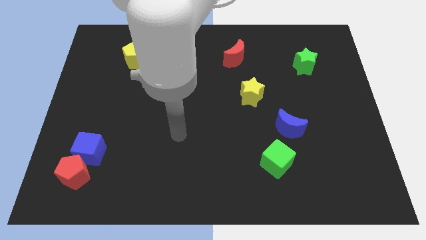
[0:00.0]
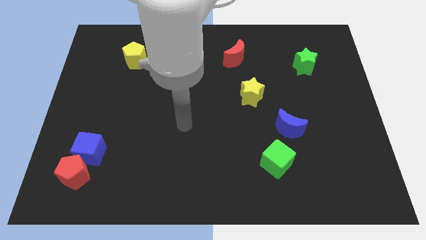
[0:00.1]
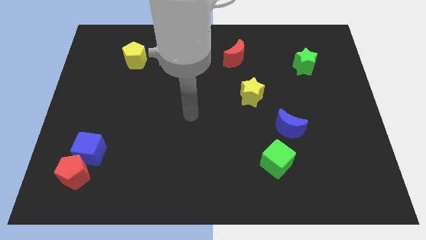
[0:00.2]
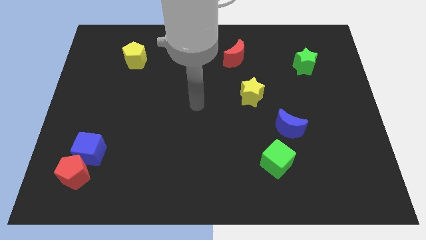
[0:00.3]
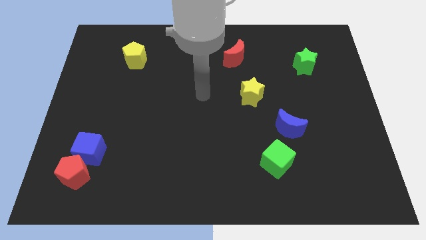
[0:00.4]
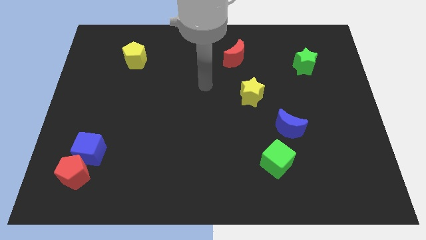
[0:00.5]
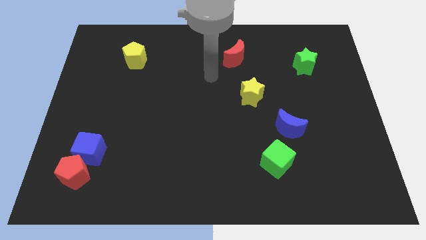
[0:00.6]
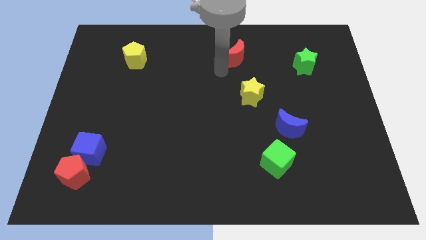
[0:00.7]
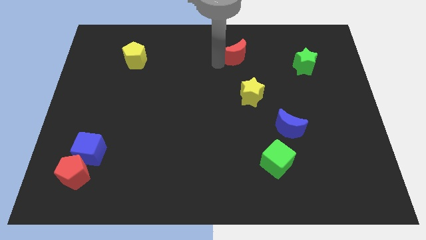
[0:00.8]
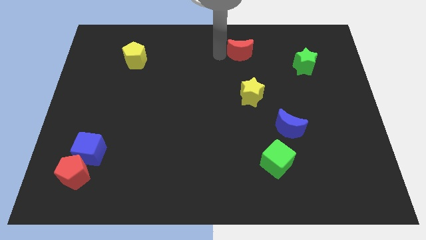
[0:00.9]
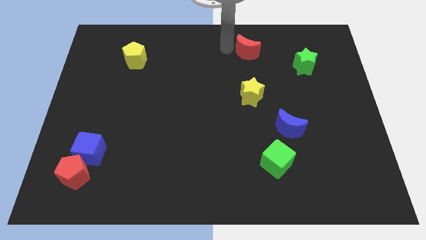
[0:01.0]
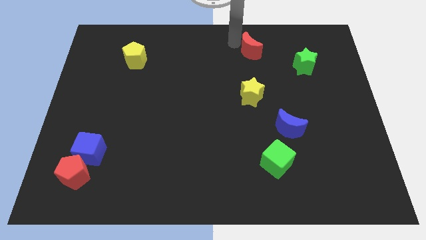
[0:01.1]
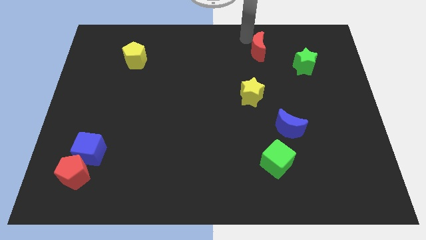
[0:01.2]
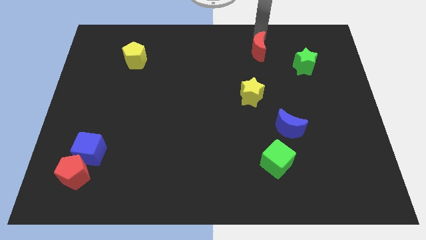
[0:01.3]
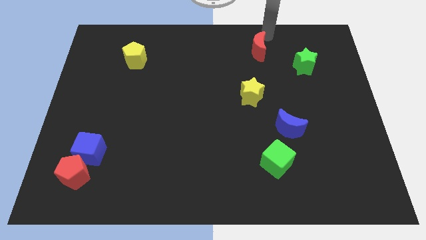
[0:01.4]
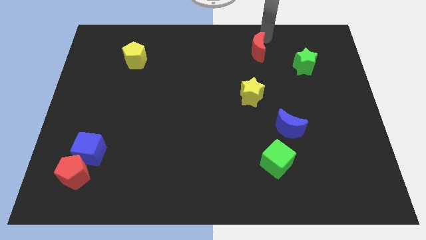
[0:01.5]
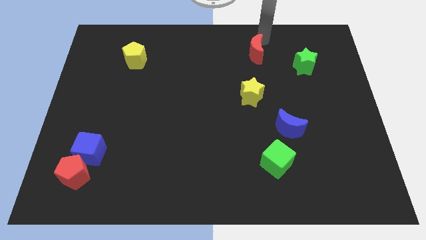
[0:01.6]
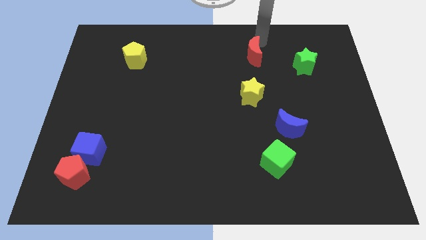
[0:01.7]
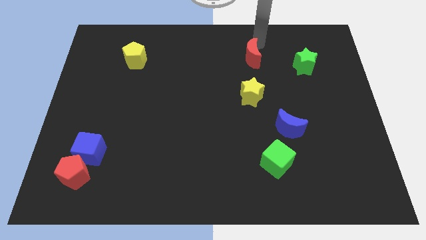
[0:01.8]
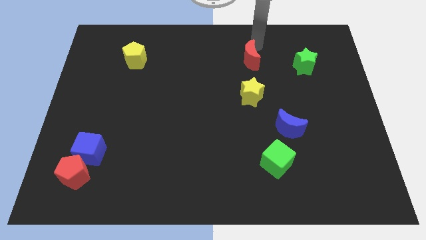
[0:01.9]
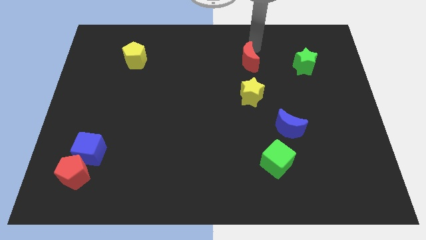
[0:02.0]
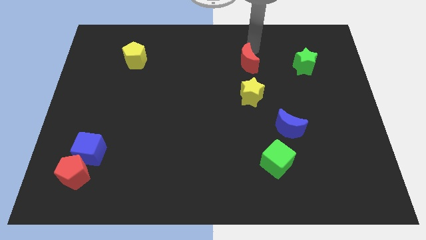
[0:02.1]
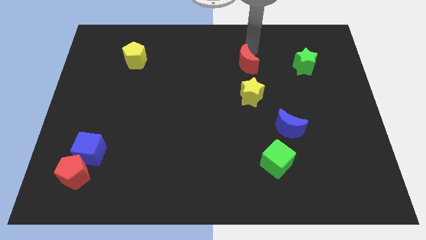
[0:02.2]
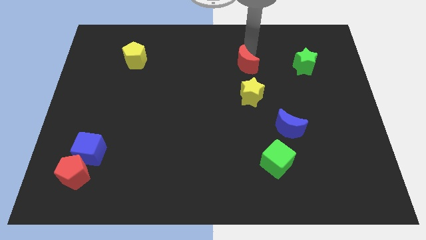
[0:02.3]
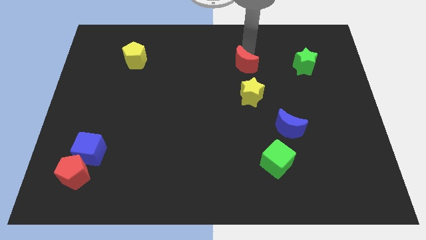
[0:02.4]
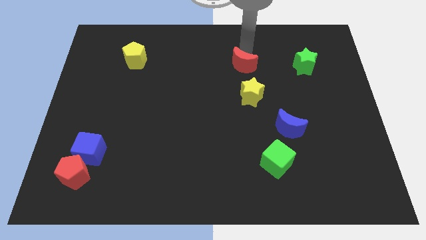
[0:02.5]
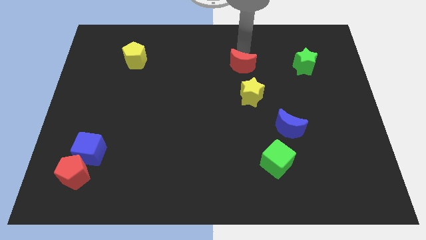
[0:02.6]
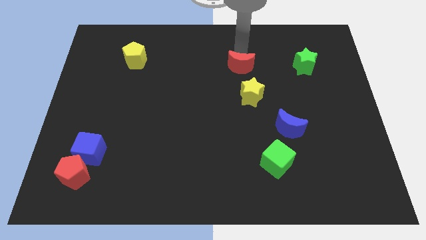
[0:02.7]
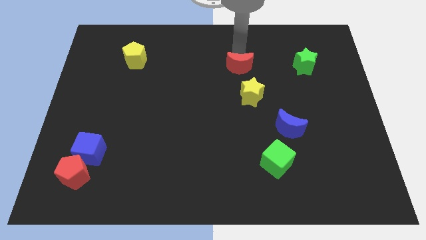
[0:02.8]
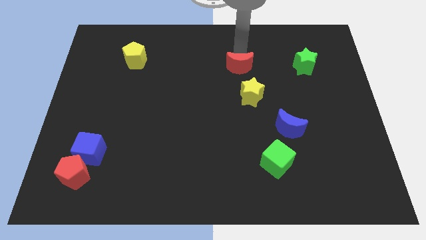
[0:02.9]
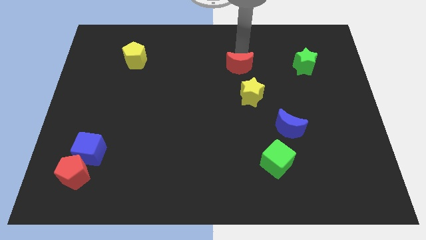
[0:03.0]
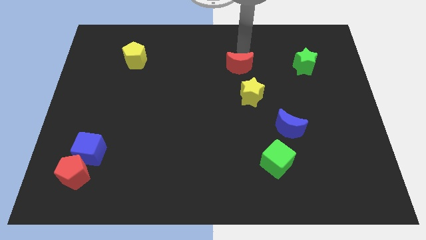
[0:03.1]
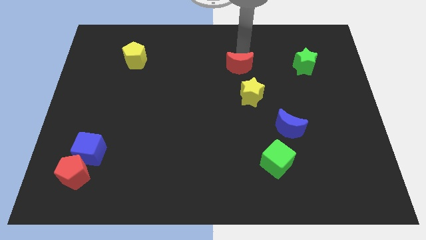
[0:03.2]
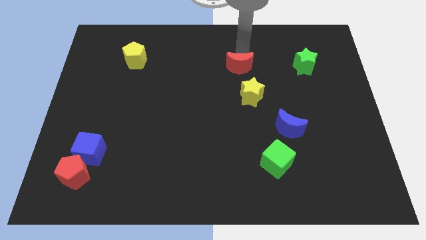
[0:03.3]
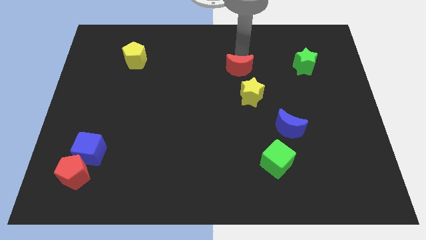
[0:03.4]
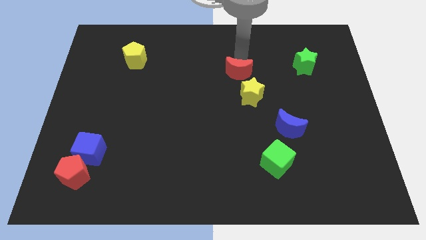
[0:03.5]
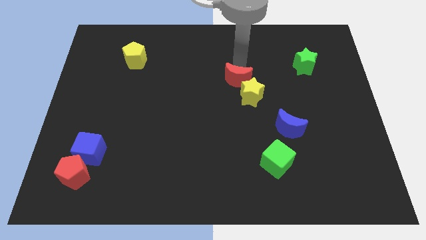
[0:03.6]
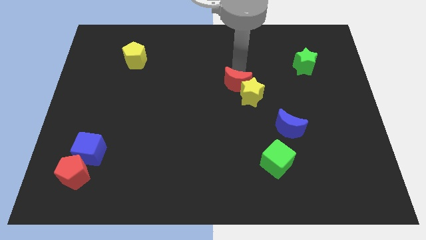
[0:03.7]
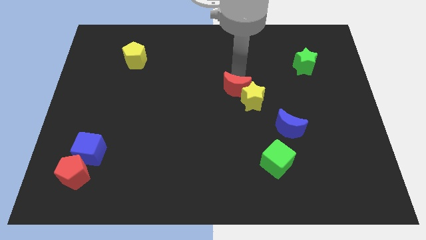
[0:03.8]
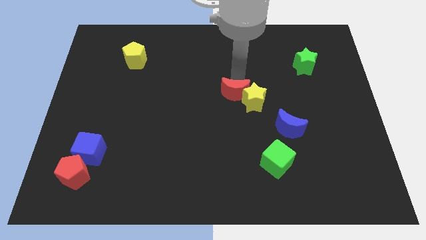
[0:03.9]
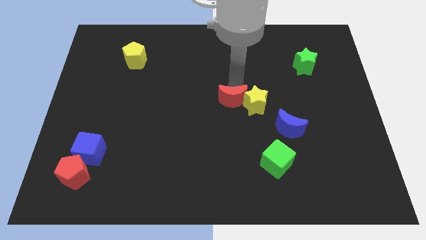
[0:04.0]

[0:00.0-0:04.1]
move the red moon to the bottom left of the yellow star

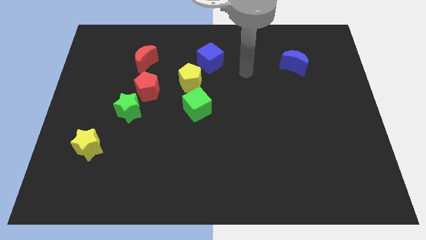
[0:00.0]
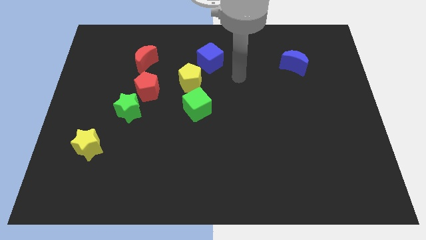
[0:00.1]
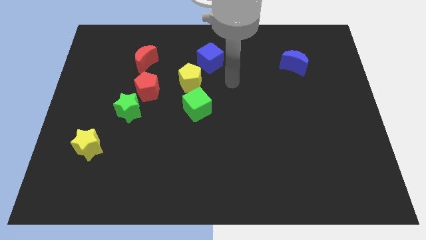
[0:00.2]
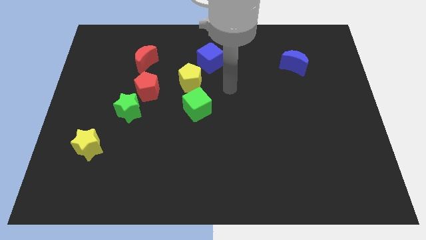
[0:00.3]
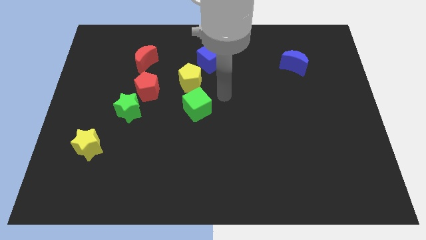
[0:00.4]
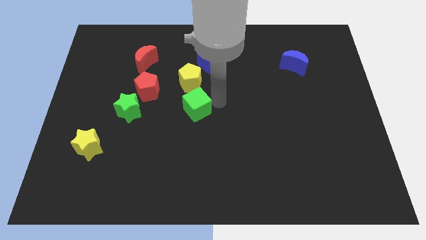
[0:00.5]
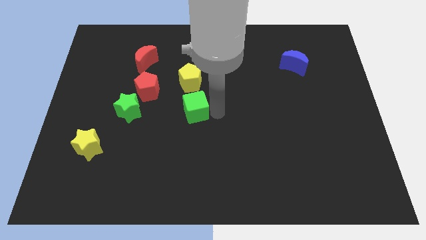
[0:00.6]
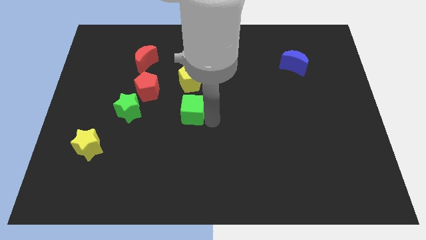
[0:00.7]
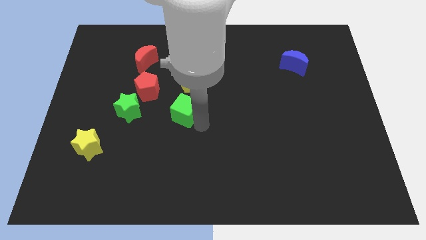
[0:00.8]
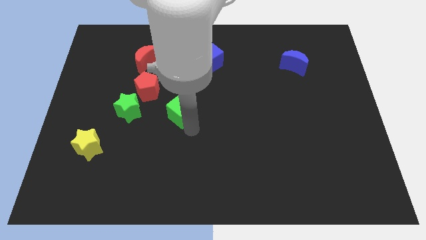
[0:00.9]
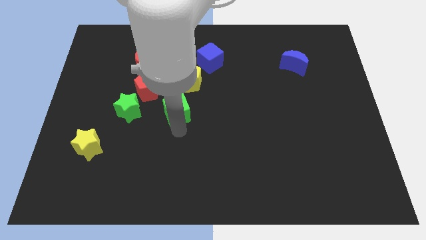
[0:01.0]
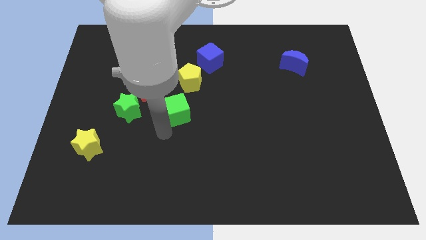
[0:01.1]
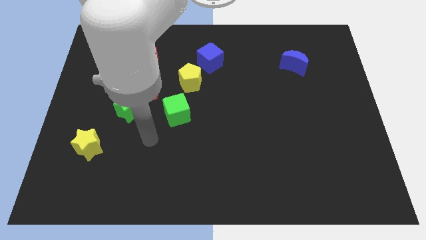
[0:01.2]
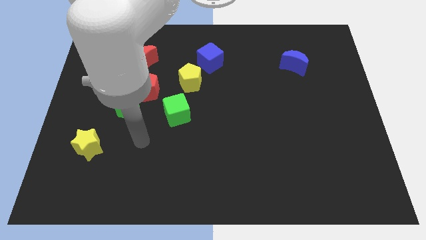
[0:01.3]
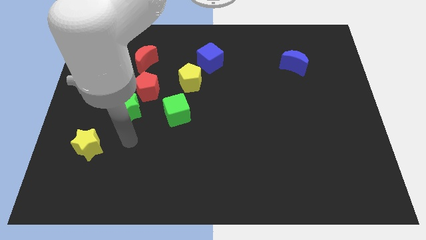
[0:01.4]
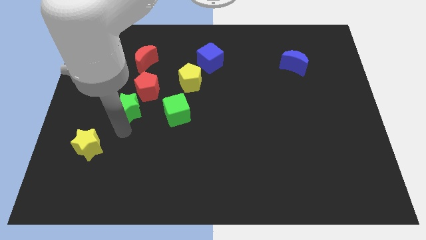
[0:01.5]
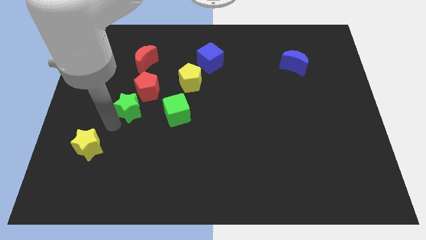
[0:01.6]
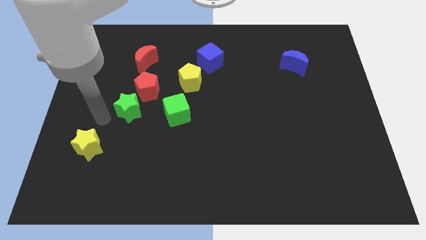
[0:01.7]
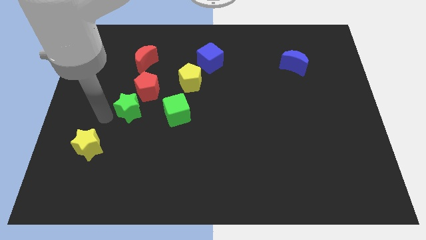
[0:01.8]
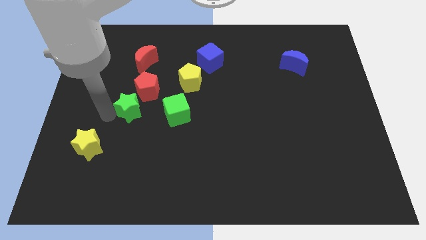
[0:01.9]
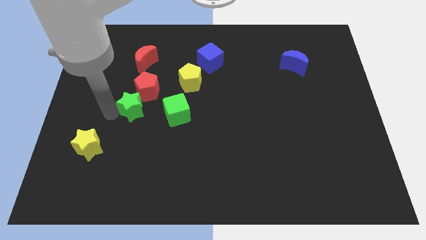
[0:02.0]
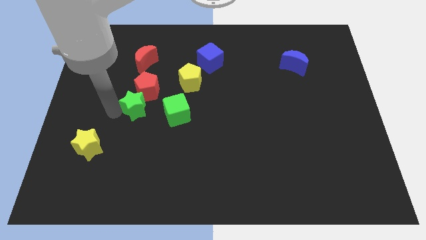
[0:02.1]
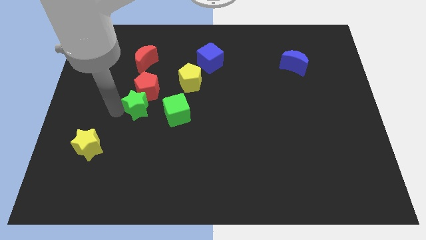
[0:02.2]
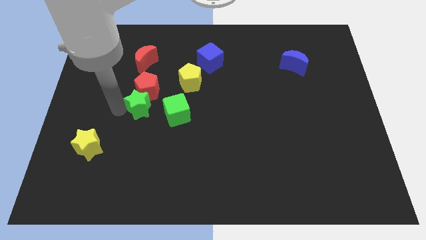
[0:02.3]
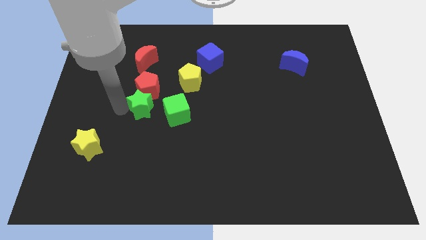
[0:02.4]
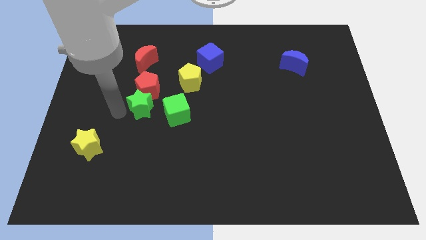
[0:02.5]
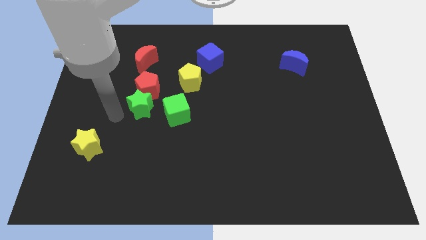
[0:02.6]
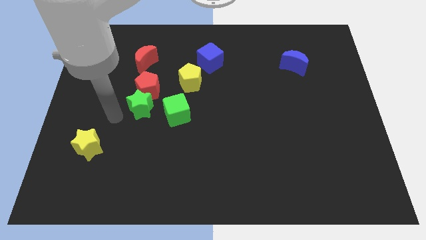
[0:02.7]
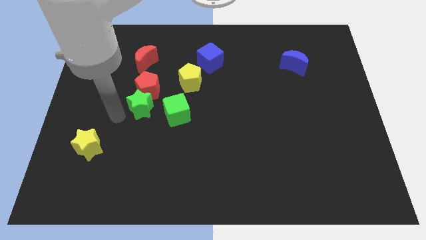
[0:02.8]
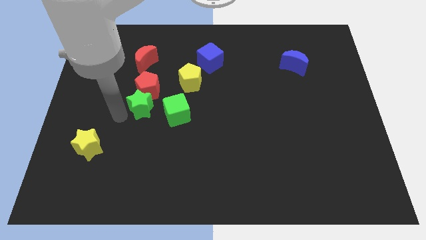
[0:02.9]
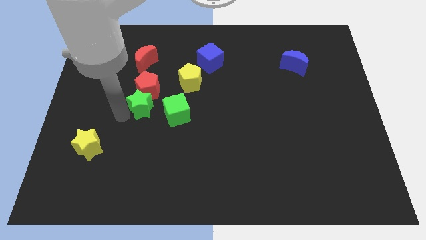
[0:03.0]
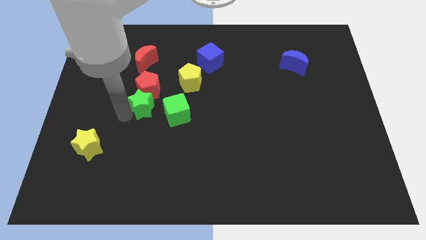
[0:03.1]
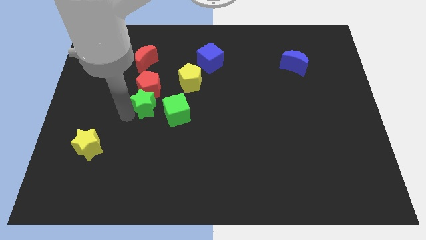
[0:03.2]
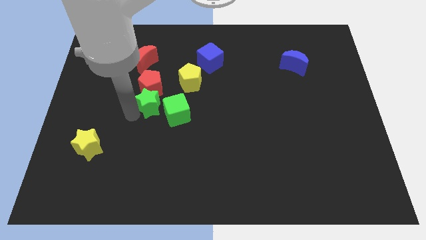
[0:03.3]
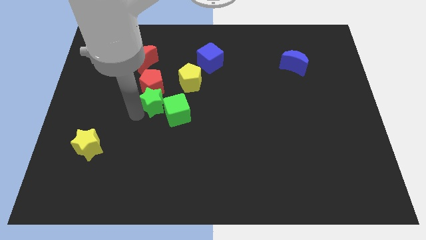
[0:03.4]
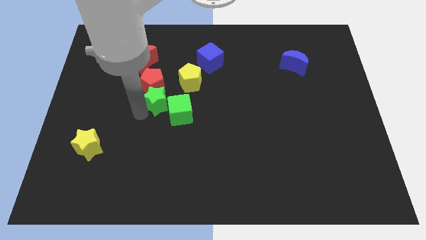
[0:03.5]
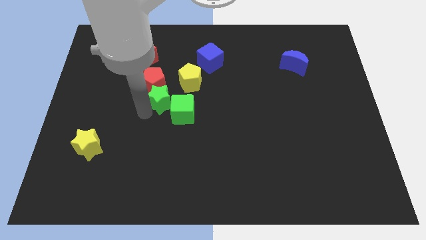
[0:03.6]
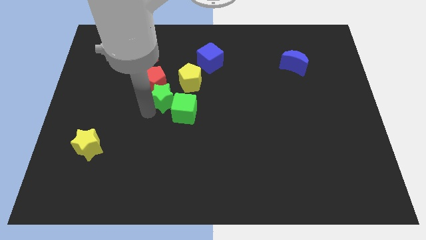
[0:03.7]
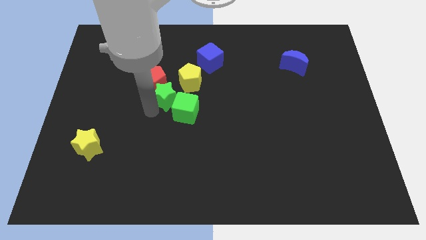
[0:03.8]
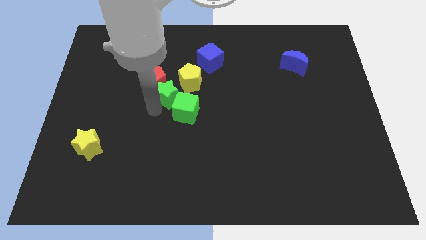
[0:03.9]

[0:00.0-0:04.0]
put the green star above the green cube
